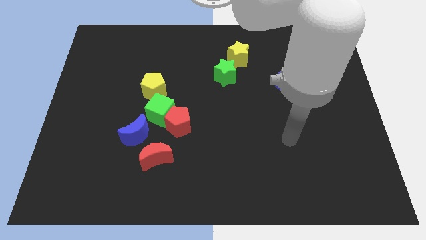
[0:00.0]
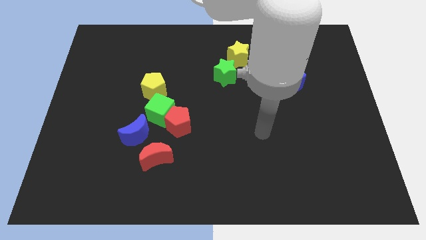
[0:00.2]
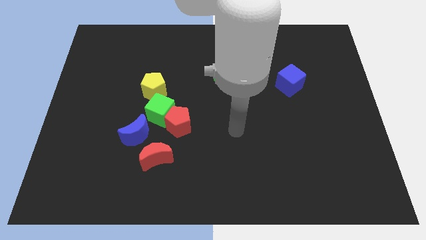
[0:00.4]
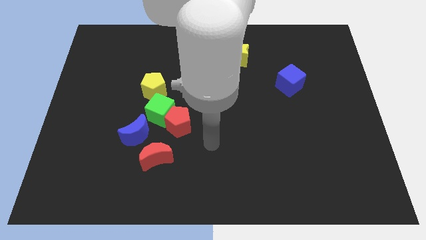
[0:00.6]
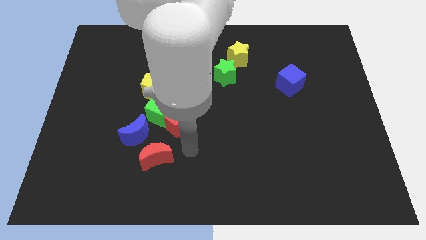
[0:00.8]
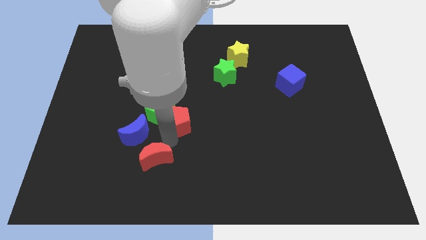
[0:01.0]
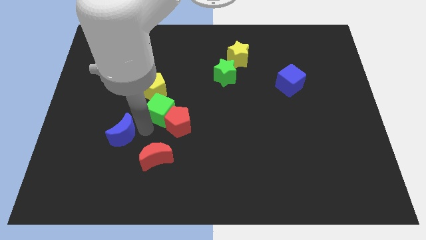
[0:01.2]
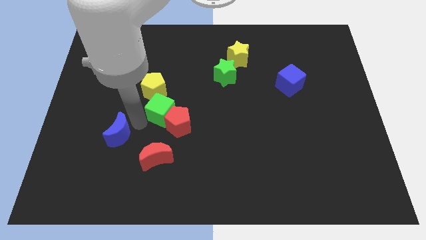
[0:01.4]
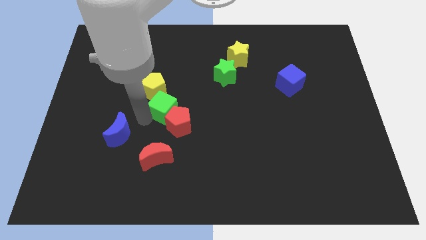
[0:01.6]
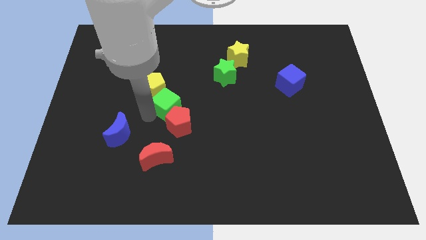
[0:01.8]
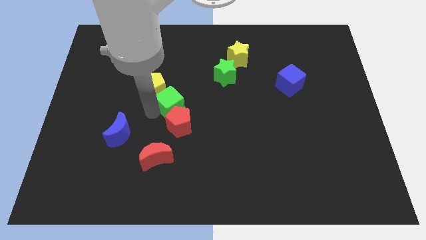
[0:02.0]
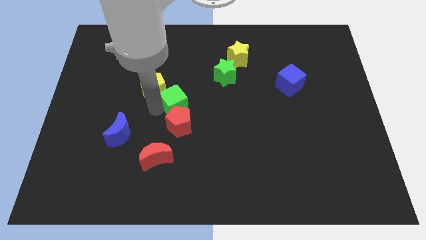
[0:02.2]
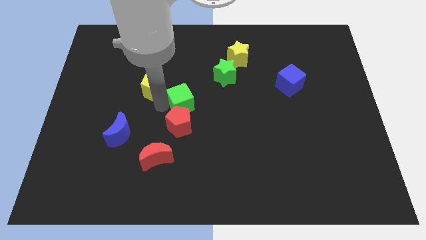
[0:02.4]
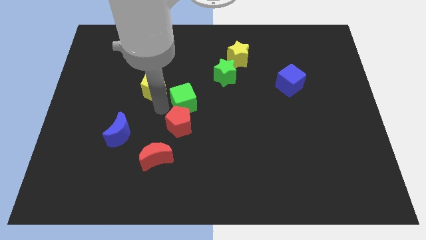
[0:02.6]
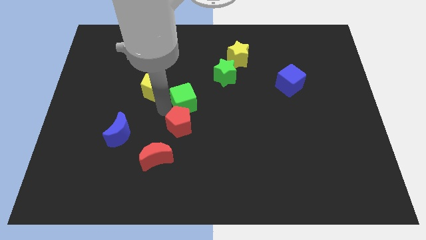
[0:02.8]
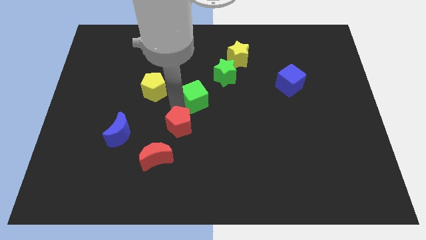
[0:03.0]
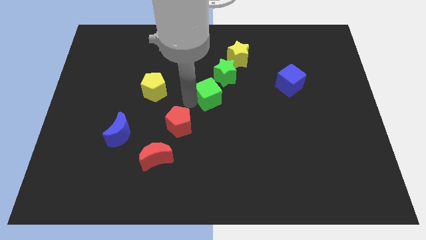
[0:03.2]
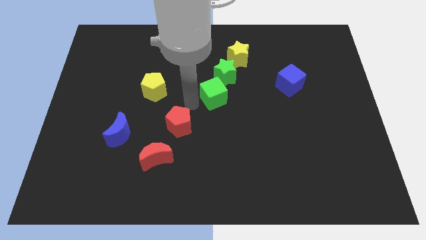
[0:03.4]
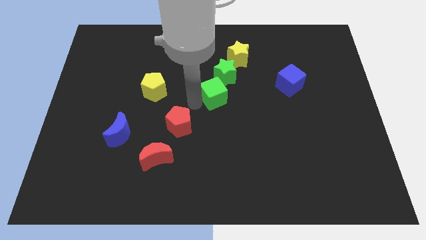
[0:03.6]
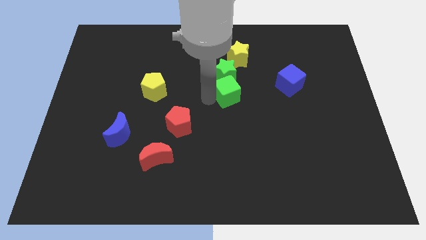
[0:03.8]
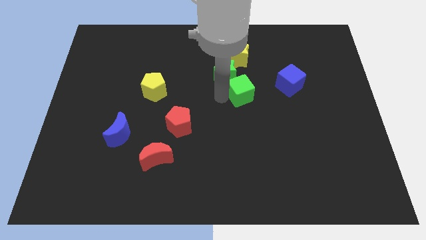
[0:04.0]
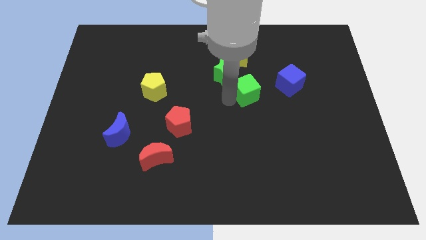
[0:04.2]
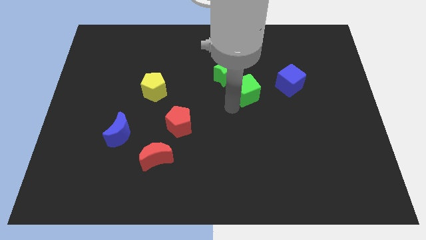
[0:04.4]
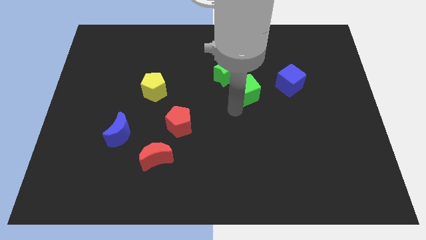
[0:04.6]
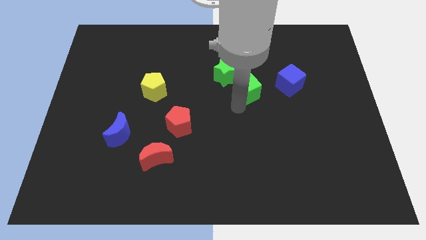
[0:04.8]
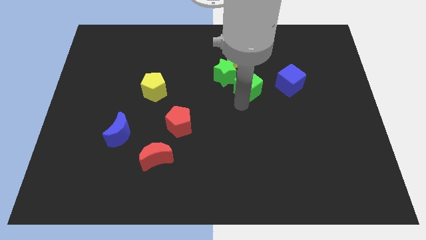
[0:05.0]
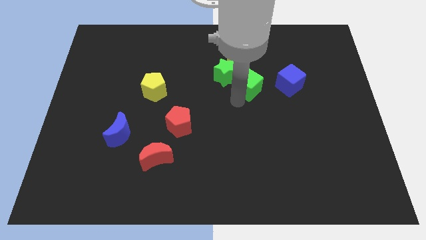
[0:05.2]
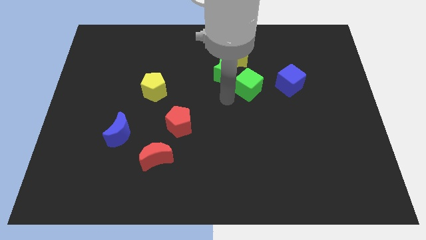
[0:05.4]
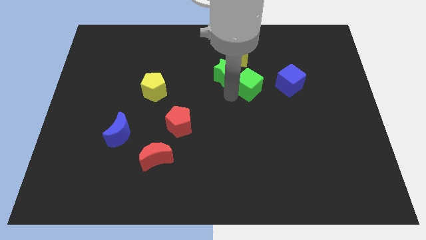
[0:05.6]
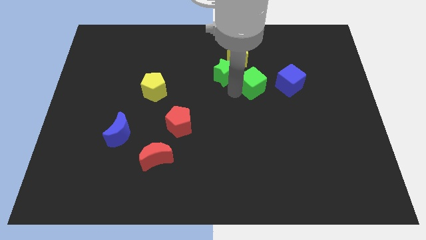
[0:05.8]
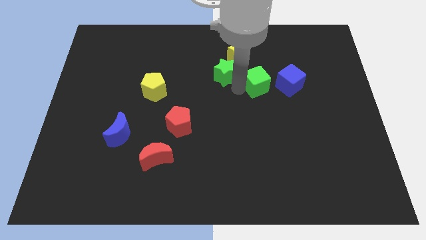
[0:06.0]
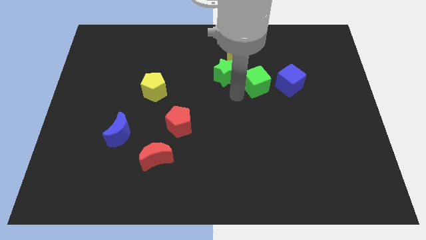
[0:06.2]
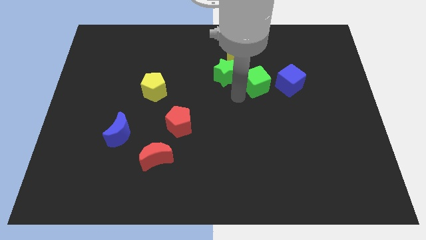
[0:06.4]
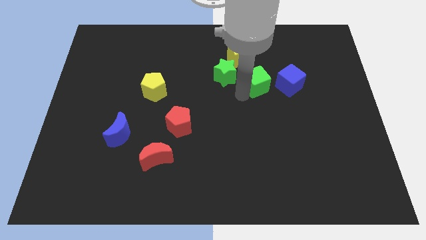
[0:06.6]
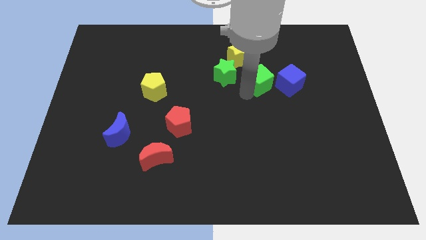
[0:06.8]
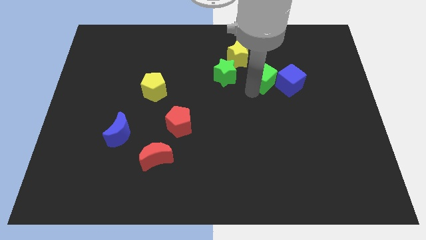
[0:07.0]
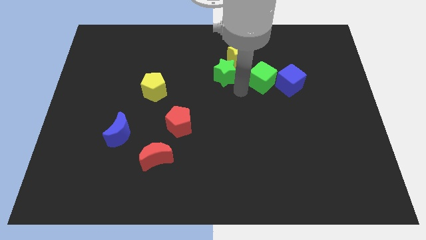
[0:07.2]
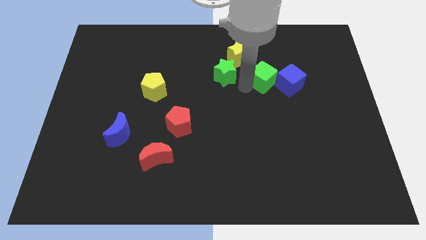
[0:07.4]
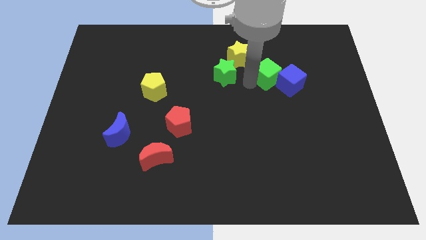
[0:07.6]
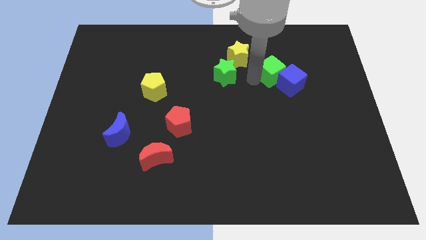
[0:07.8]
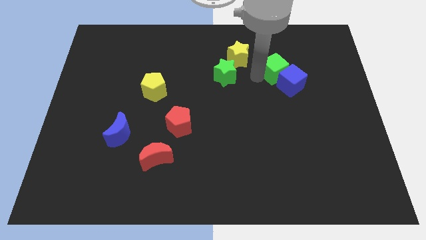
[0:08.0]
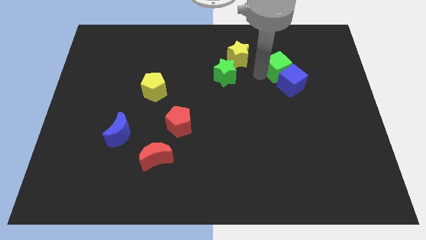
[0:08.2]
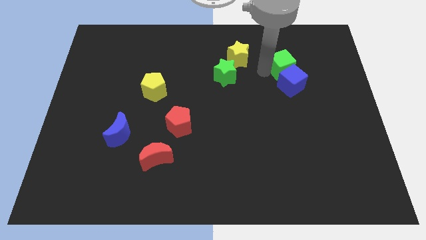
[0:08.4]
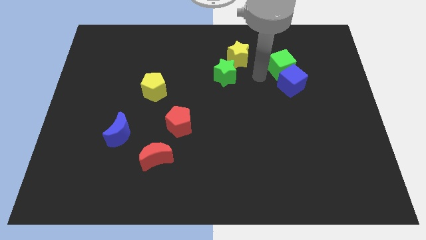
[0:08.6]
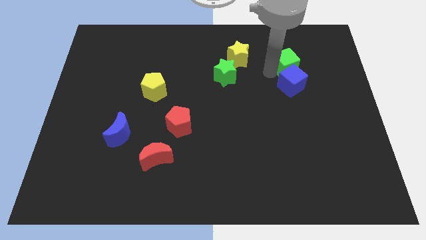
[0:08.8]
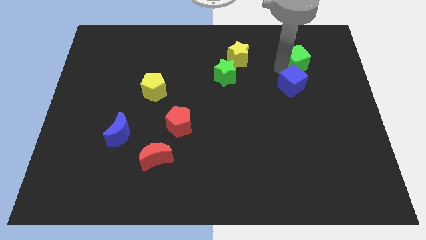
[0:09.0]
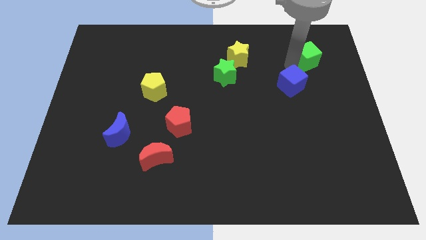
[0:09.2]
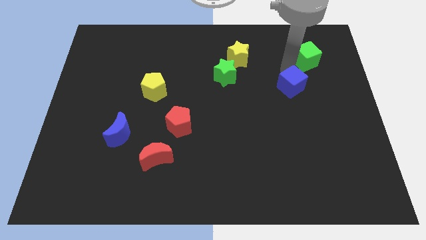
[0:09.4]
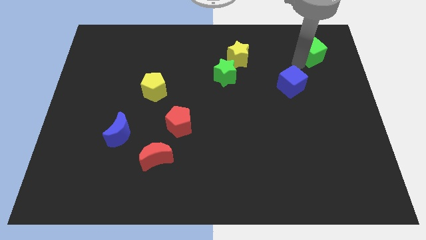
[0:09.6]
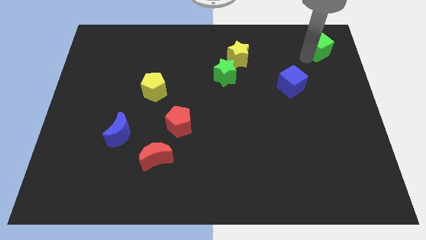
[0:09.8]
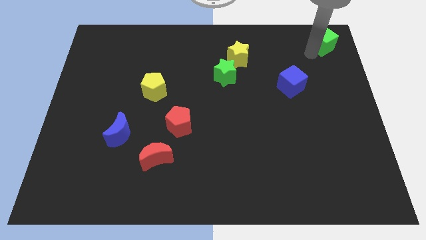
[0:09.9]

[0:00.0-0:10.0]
put the green cube to the top right

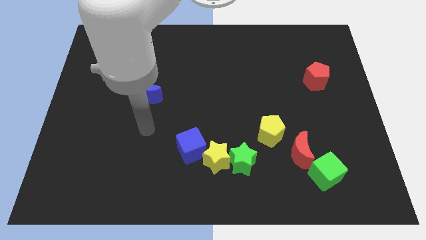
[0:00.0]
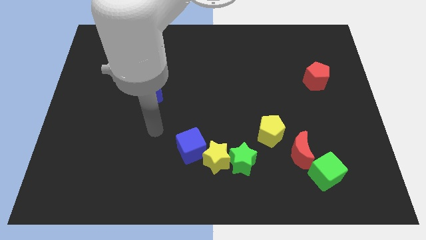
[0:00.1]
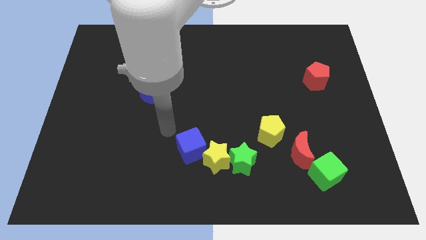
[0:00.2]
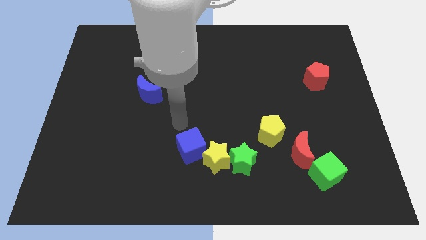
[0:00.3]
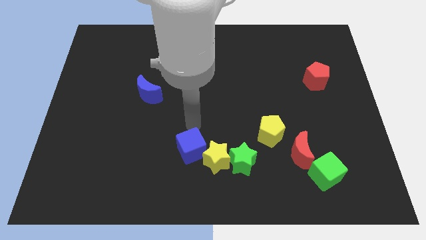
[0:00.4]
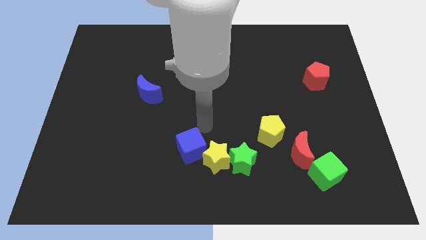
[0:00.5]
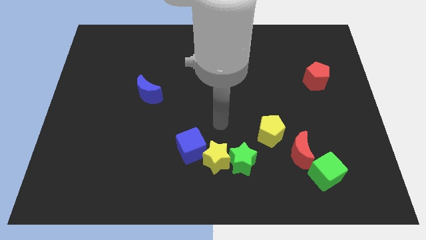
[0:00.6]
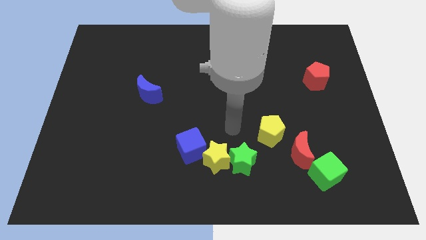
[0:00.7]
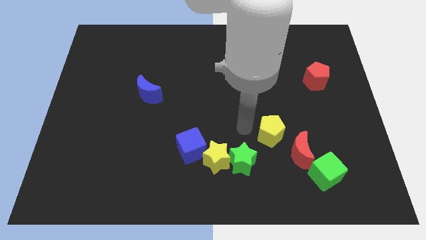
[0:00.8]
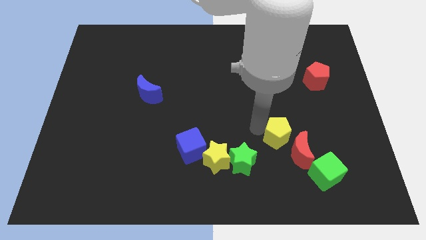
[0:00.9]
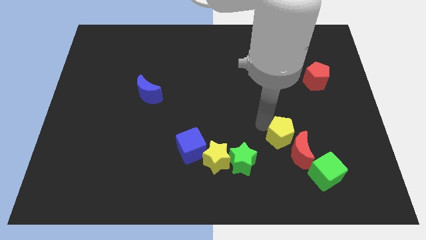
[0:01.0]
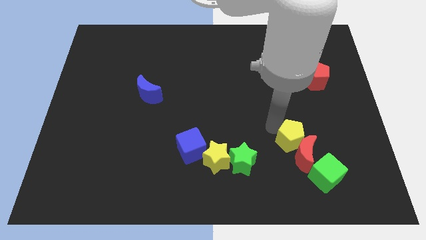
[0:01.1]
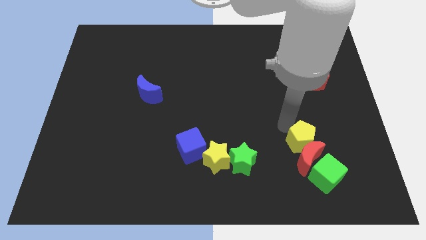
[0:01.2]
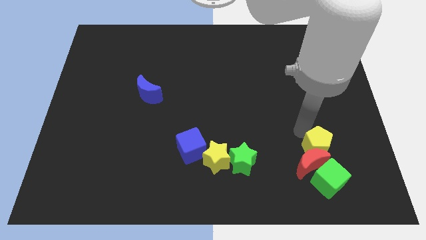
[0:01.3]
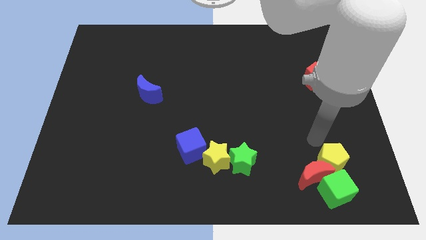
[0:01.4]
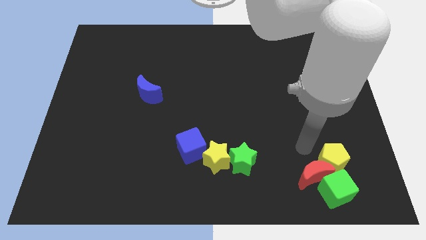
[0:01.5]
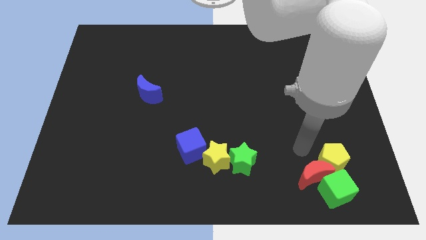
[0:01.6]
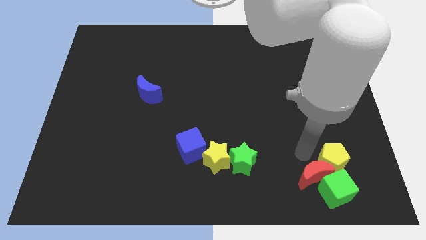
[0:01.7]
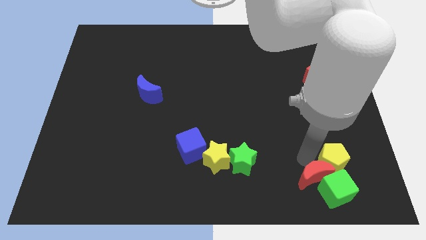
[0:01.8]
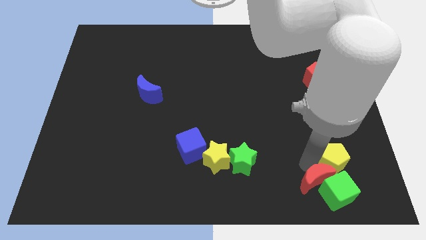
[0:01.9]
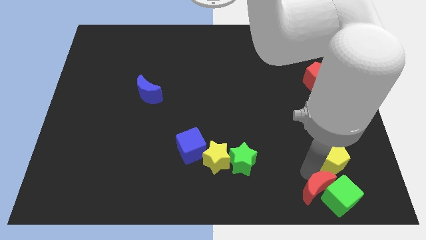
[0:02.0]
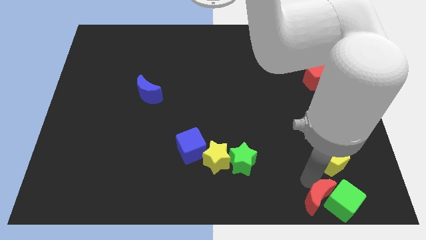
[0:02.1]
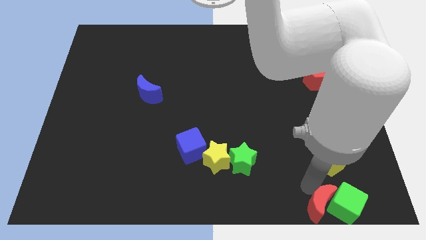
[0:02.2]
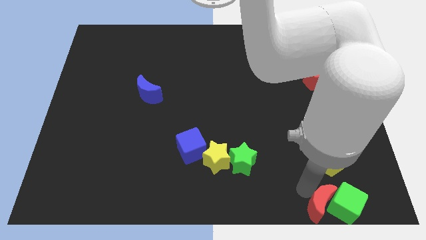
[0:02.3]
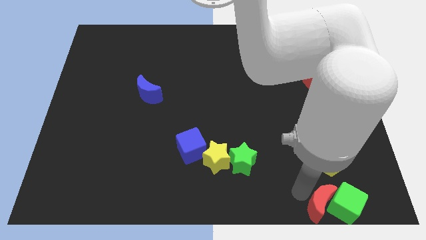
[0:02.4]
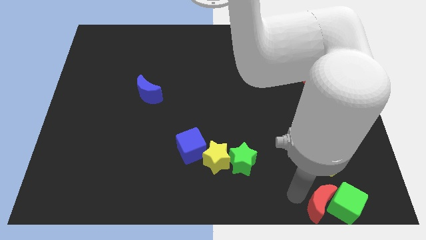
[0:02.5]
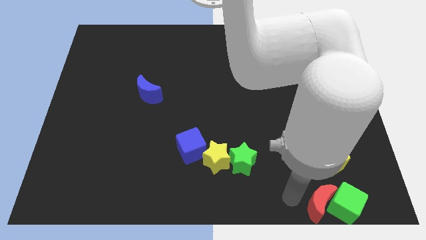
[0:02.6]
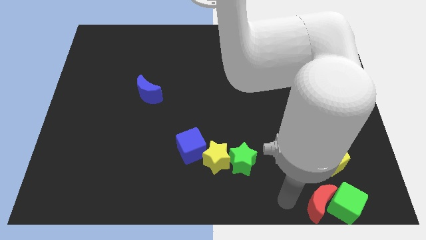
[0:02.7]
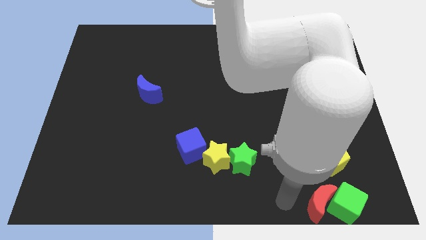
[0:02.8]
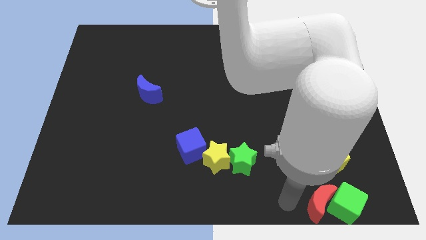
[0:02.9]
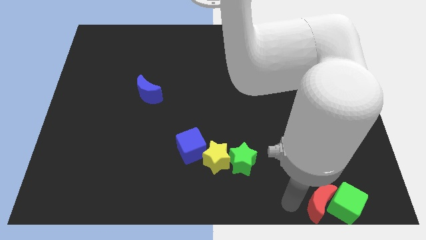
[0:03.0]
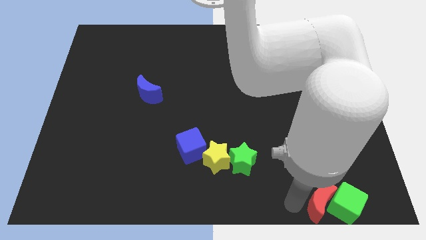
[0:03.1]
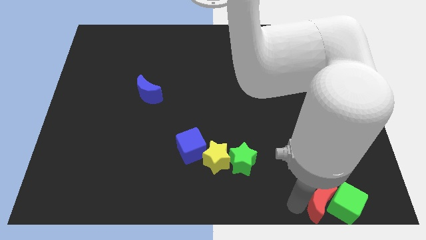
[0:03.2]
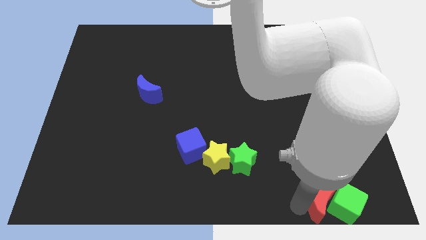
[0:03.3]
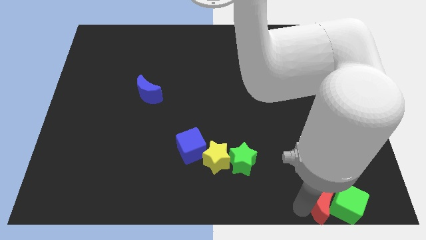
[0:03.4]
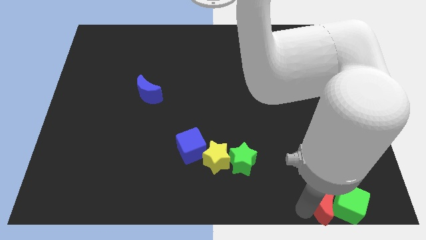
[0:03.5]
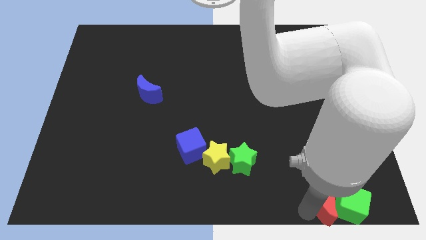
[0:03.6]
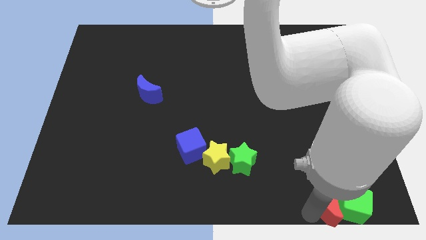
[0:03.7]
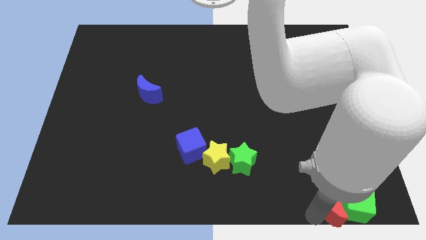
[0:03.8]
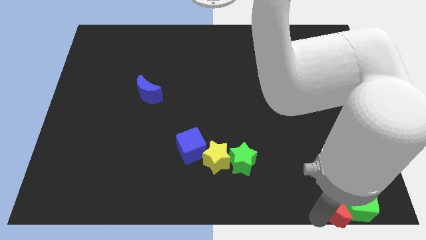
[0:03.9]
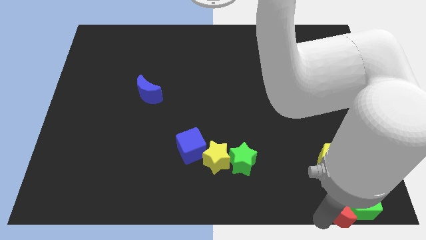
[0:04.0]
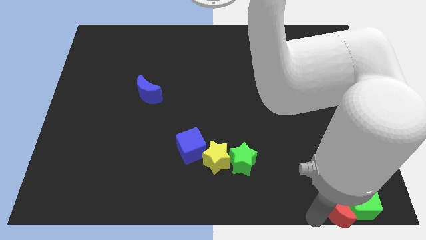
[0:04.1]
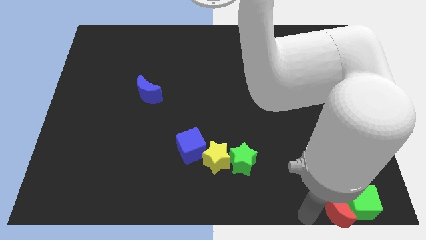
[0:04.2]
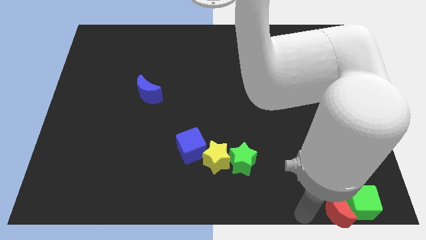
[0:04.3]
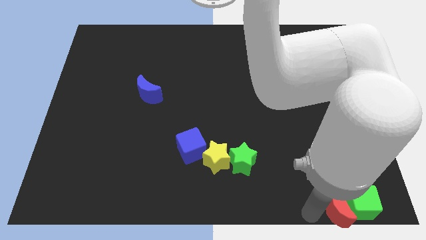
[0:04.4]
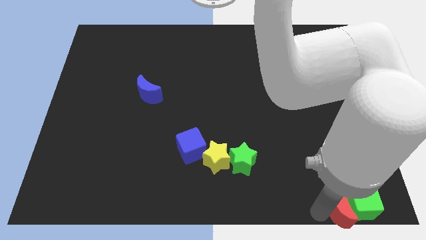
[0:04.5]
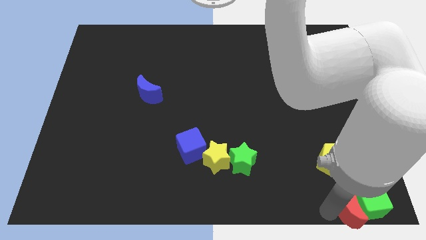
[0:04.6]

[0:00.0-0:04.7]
slide the red moon to the bottom right corner
